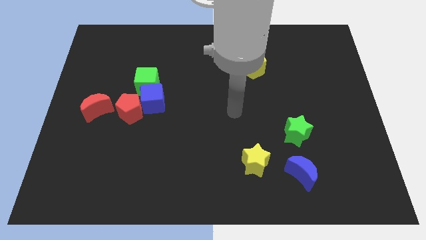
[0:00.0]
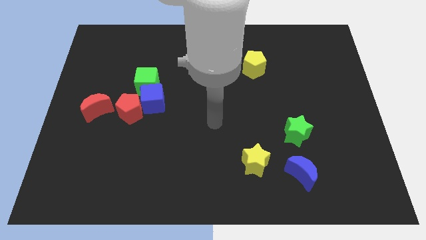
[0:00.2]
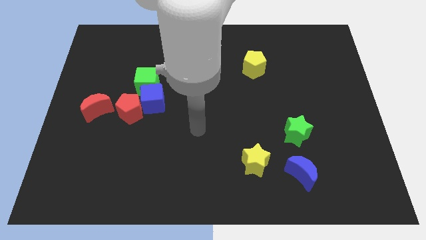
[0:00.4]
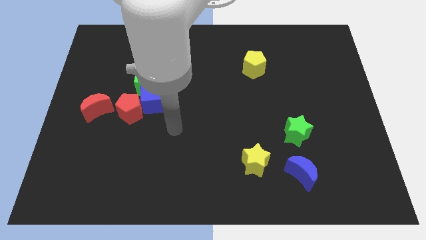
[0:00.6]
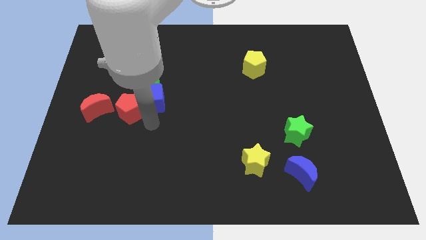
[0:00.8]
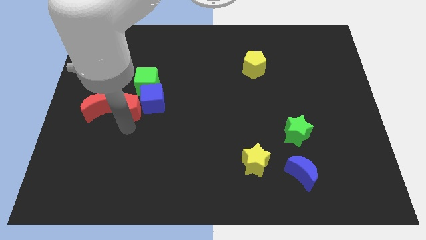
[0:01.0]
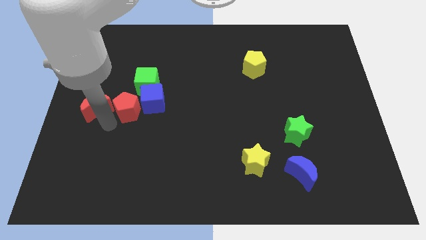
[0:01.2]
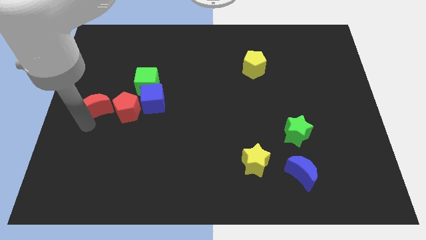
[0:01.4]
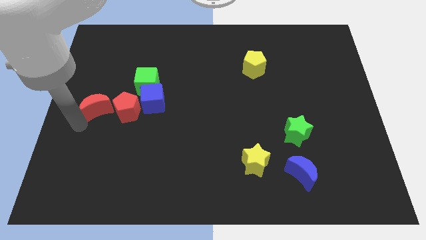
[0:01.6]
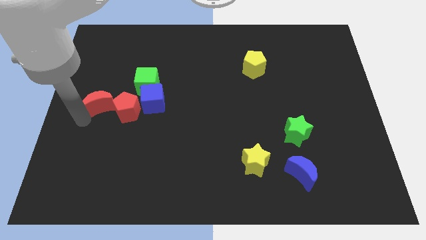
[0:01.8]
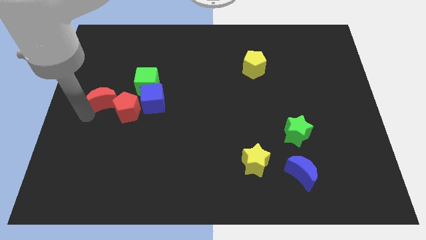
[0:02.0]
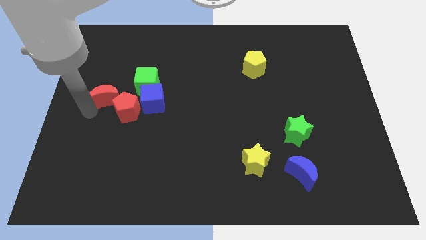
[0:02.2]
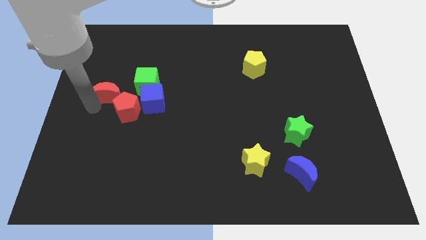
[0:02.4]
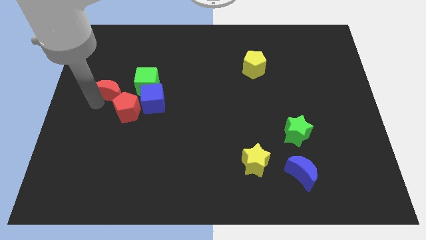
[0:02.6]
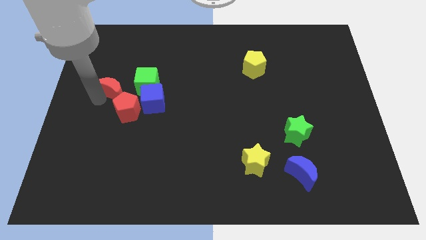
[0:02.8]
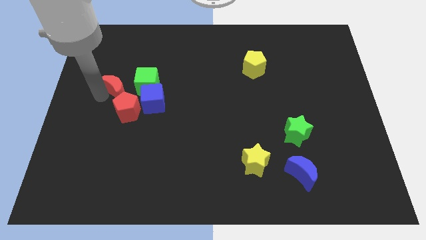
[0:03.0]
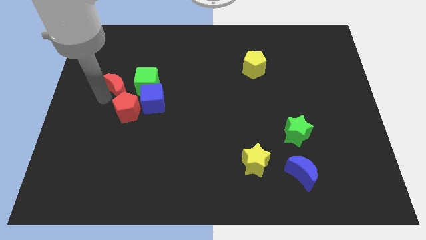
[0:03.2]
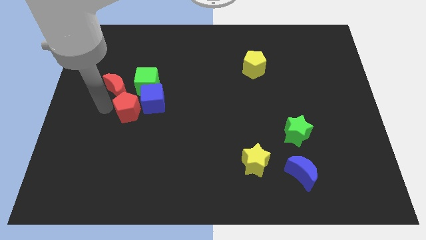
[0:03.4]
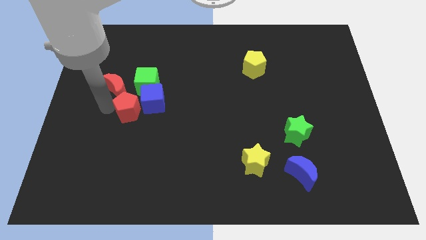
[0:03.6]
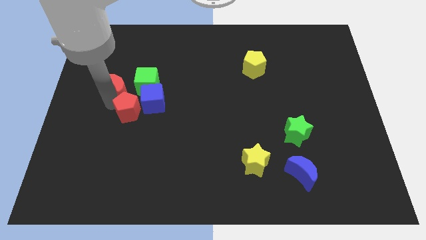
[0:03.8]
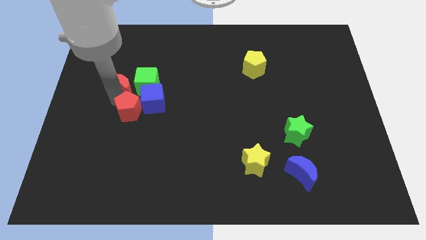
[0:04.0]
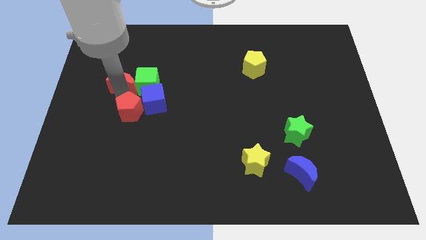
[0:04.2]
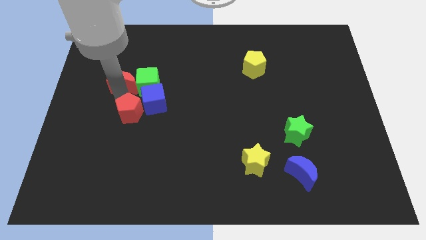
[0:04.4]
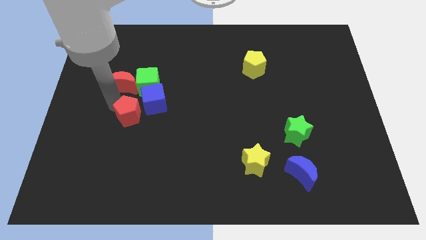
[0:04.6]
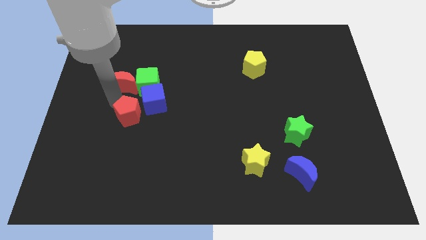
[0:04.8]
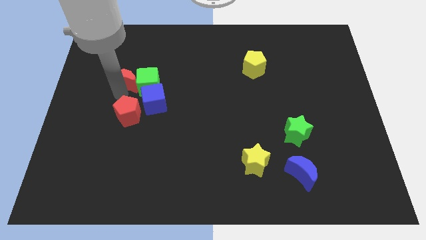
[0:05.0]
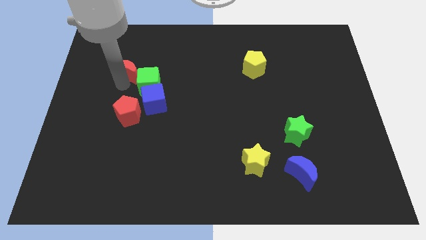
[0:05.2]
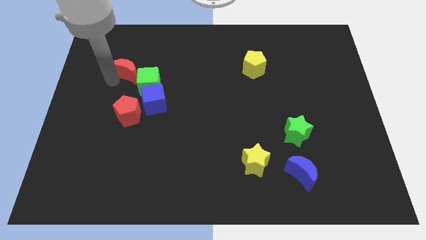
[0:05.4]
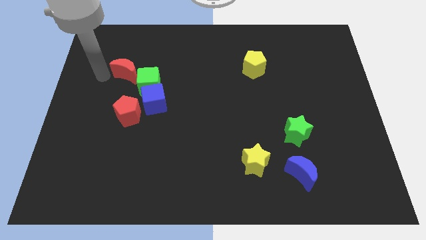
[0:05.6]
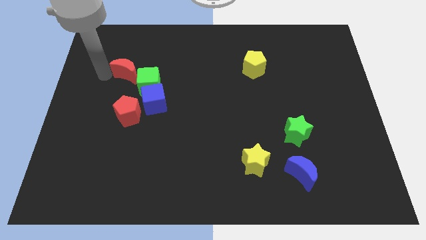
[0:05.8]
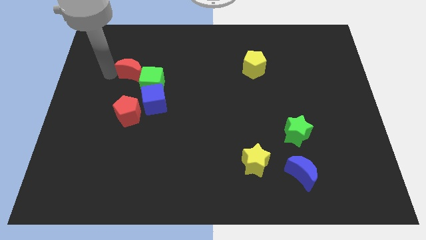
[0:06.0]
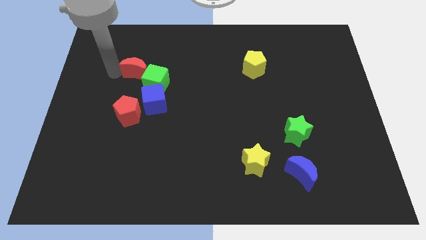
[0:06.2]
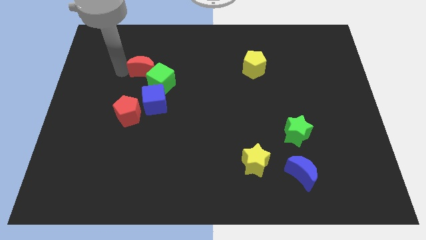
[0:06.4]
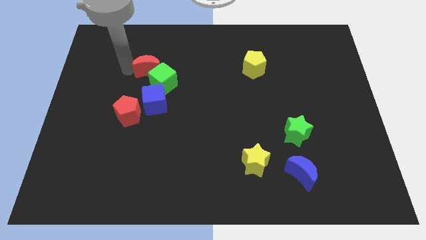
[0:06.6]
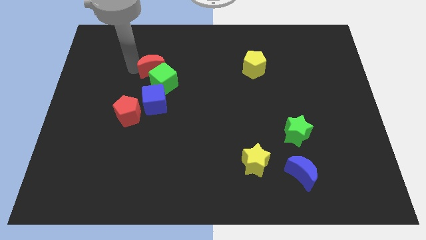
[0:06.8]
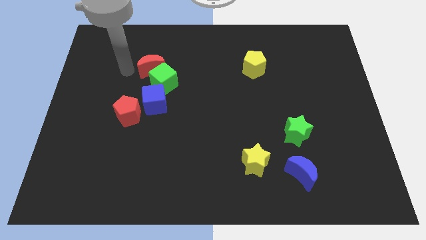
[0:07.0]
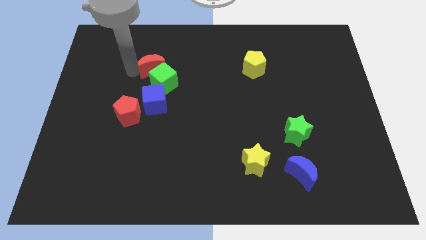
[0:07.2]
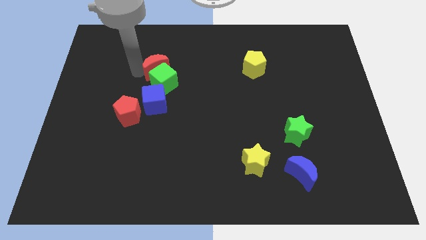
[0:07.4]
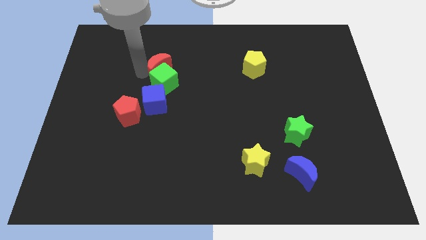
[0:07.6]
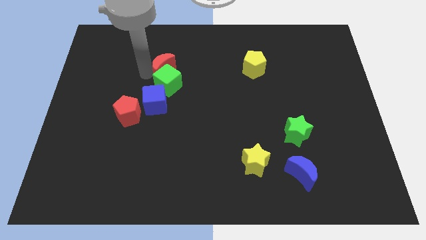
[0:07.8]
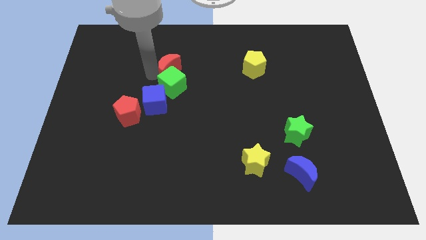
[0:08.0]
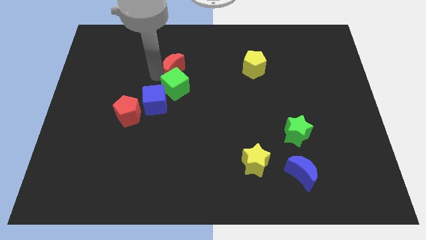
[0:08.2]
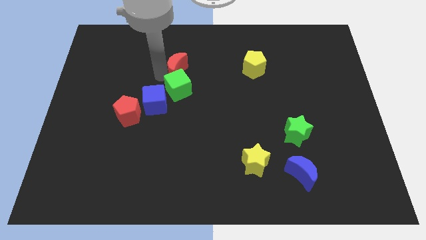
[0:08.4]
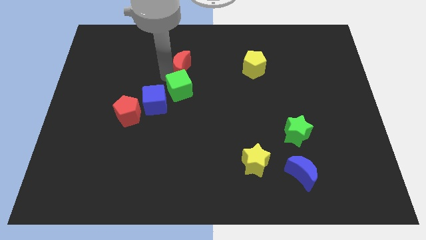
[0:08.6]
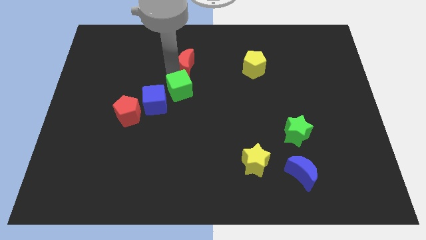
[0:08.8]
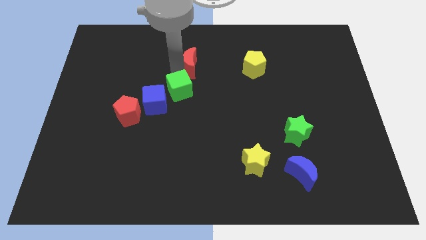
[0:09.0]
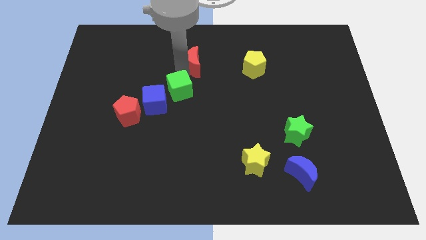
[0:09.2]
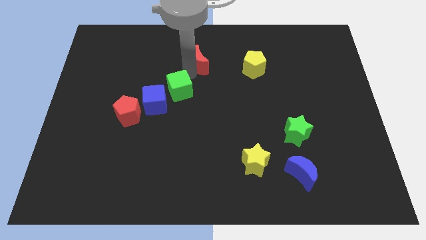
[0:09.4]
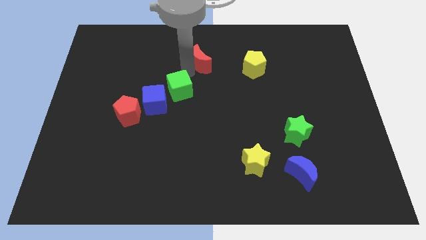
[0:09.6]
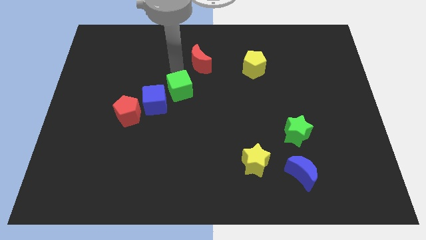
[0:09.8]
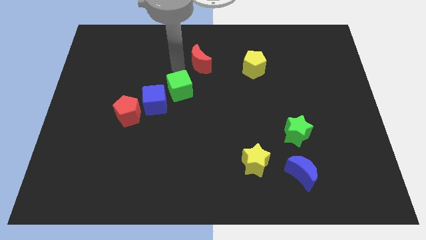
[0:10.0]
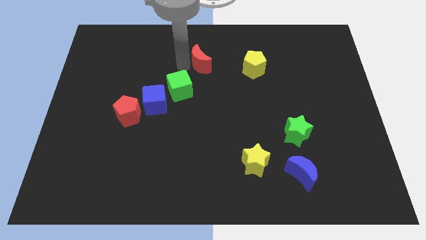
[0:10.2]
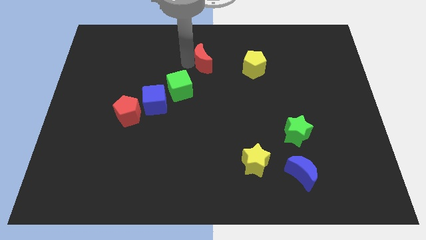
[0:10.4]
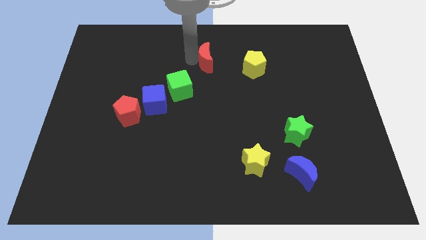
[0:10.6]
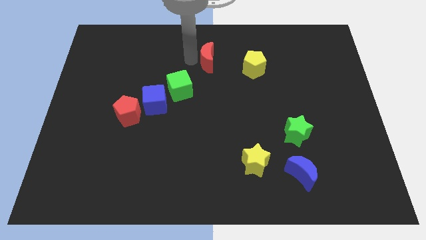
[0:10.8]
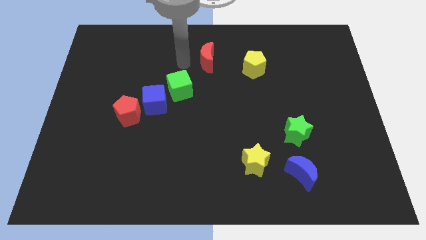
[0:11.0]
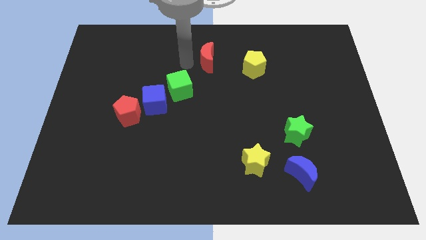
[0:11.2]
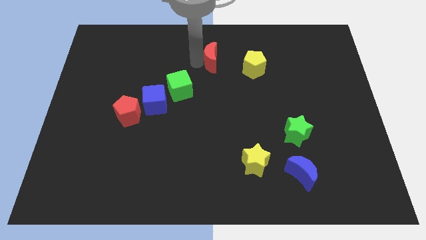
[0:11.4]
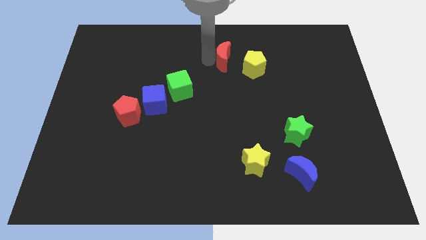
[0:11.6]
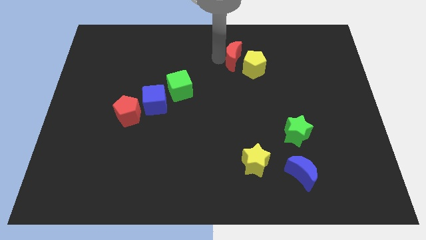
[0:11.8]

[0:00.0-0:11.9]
slide the red moon next to the yellow pentagon

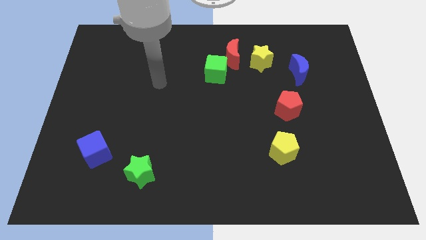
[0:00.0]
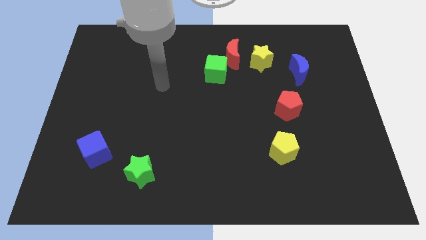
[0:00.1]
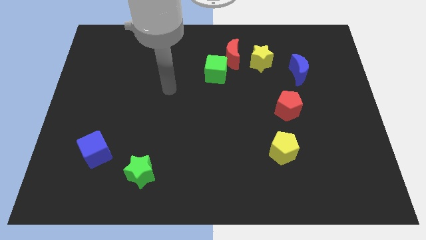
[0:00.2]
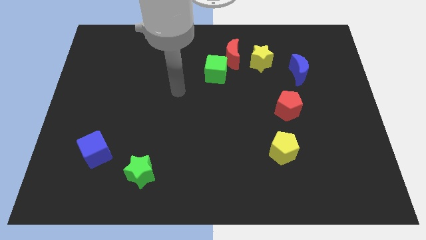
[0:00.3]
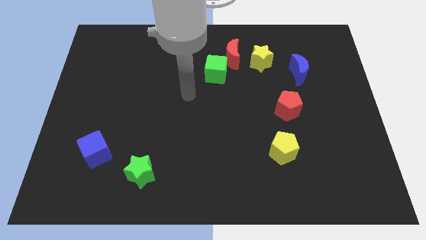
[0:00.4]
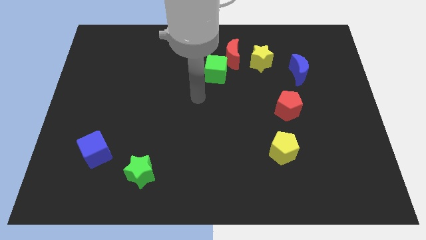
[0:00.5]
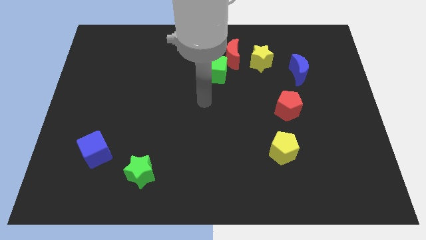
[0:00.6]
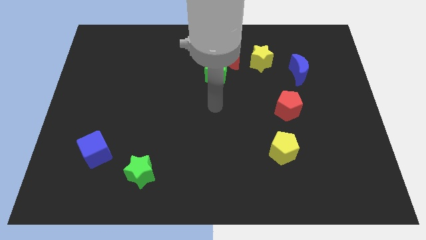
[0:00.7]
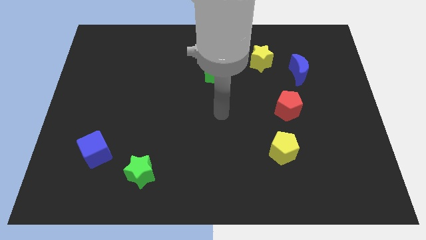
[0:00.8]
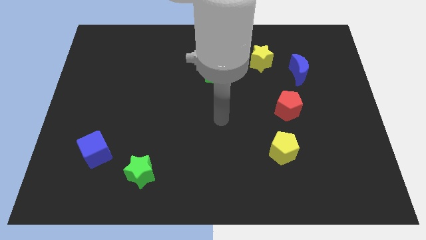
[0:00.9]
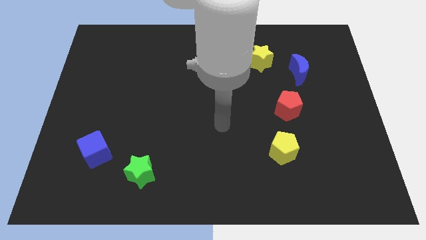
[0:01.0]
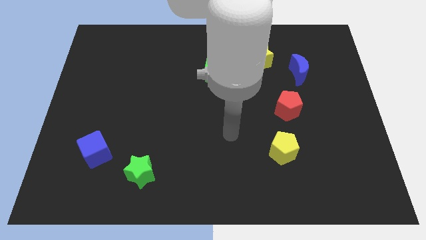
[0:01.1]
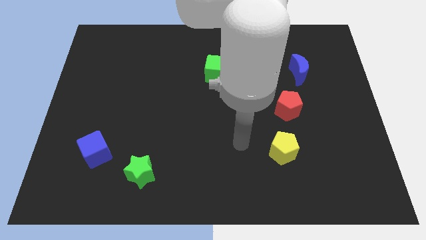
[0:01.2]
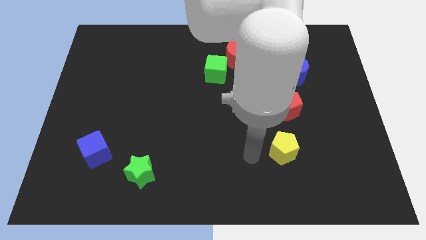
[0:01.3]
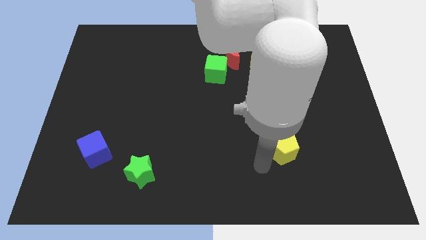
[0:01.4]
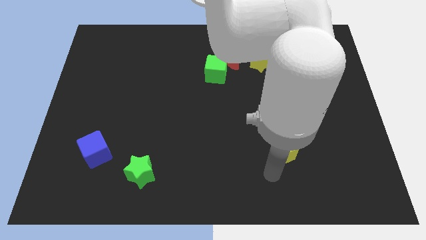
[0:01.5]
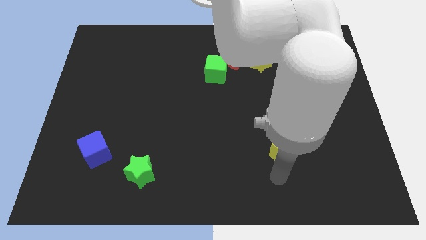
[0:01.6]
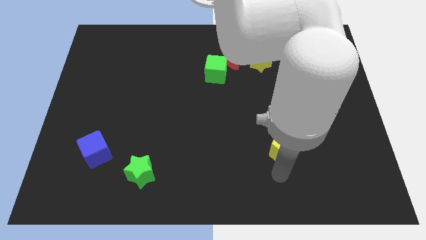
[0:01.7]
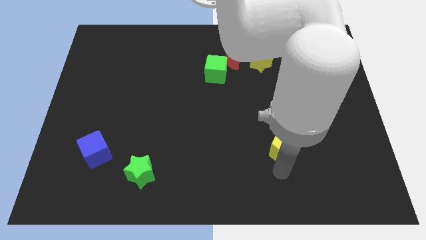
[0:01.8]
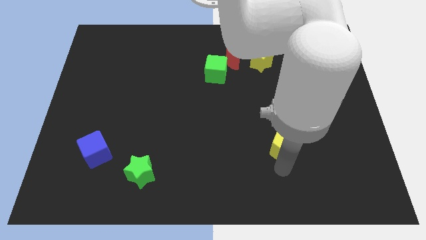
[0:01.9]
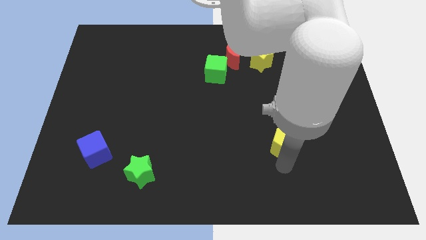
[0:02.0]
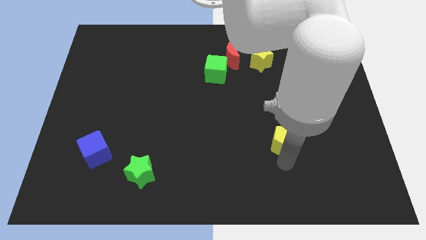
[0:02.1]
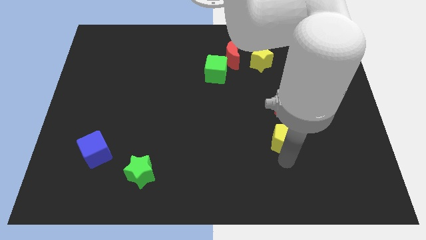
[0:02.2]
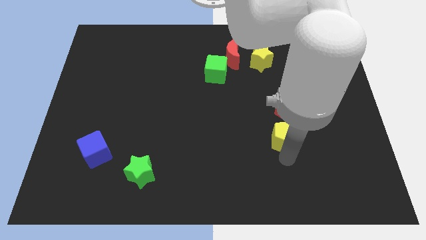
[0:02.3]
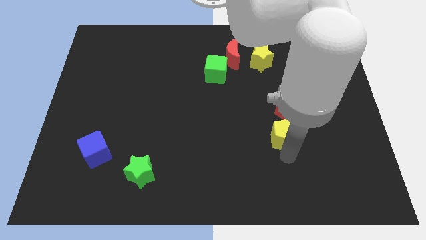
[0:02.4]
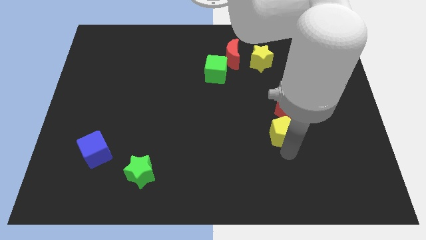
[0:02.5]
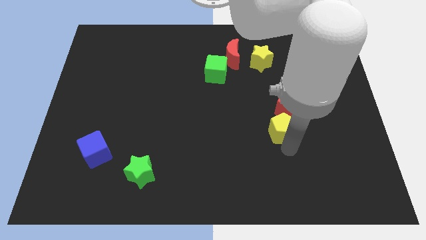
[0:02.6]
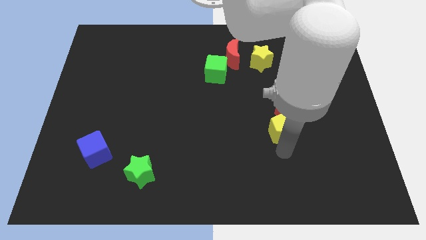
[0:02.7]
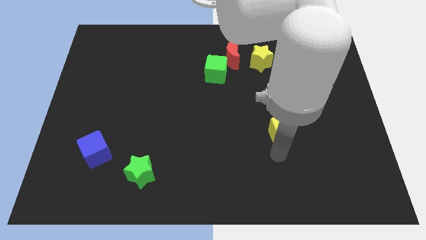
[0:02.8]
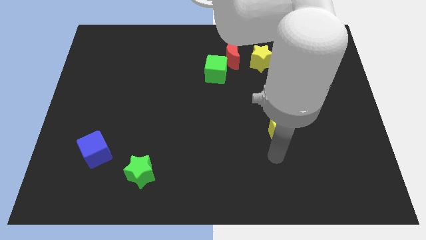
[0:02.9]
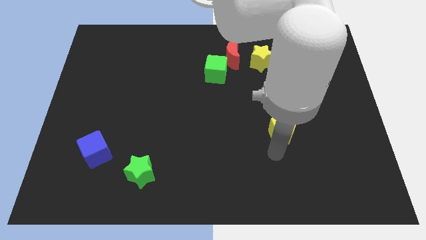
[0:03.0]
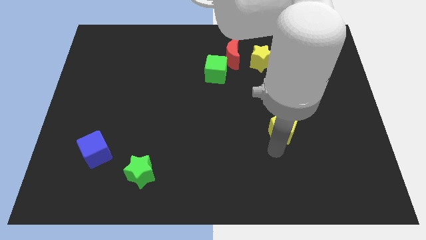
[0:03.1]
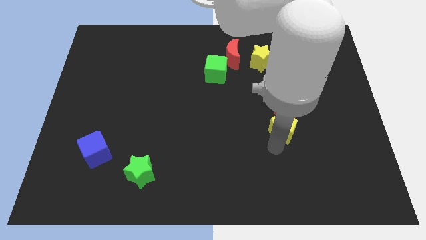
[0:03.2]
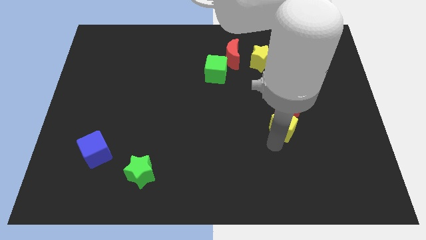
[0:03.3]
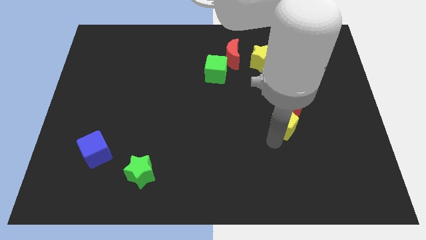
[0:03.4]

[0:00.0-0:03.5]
put the yellow pentagon to the red pentagon
